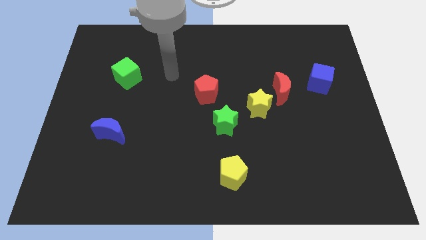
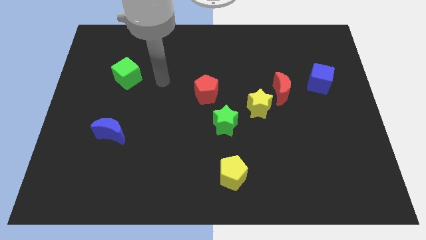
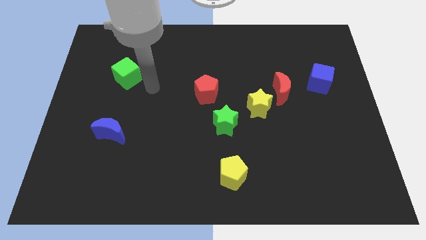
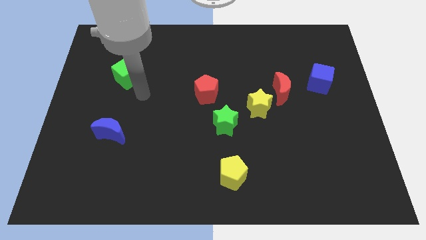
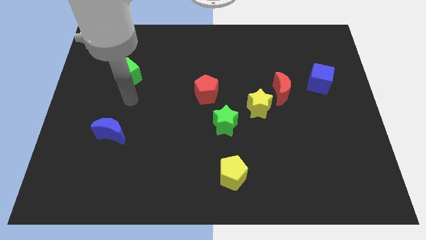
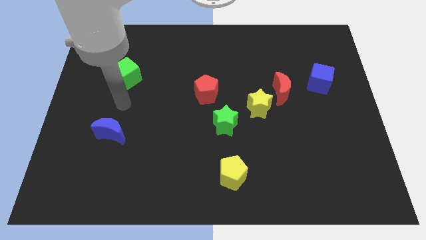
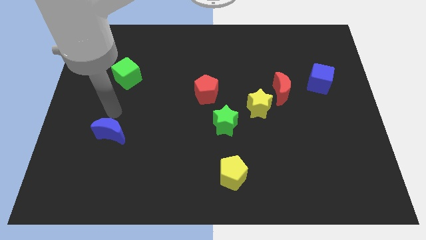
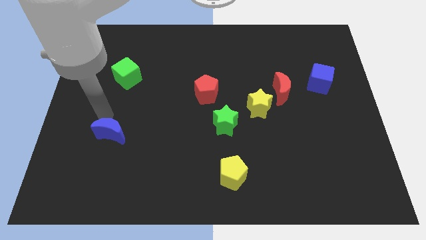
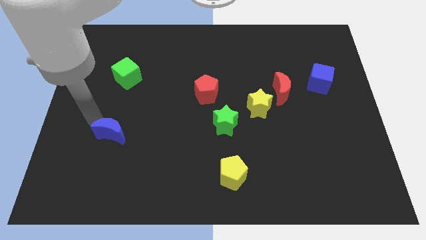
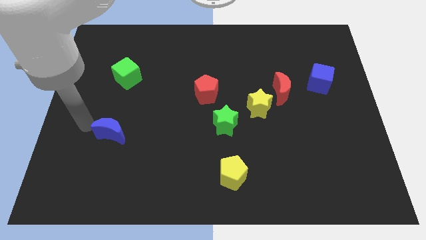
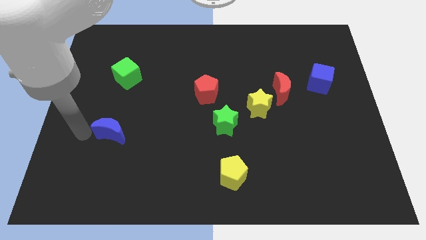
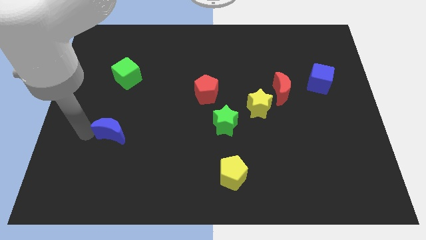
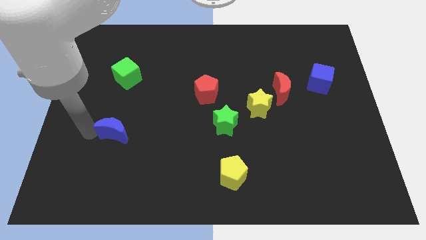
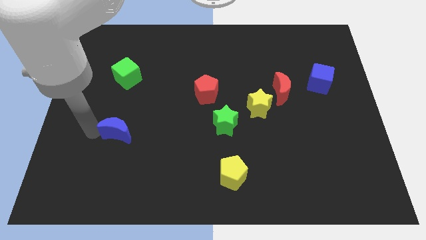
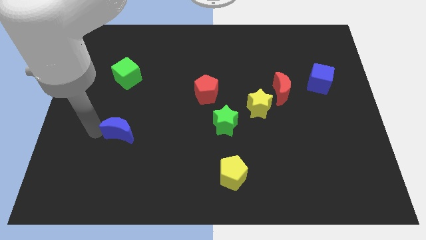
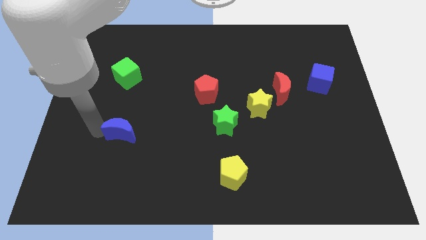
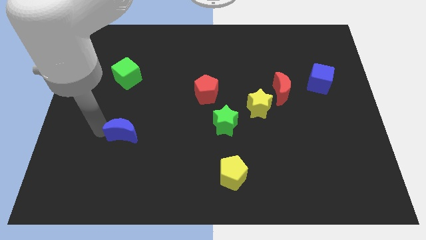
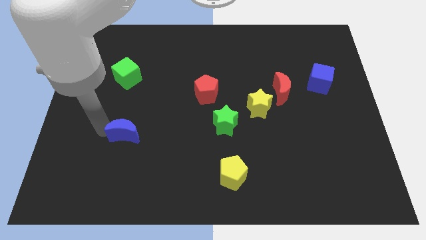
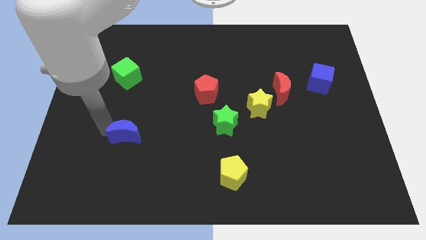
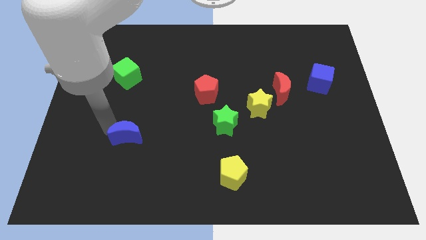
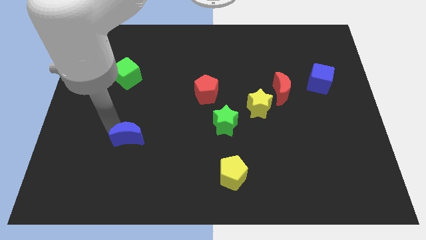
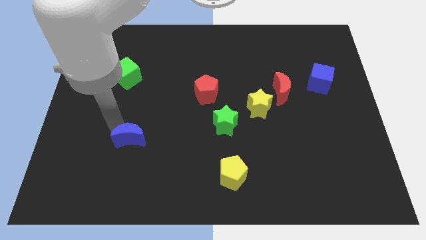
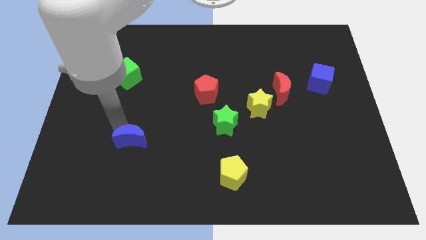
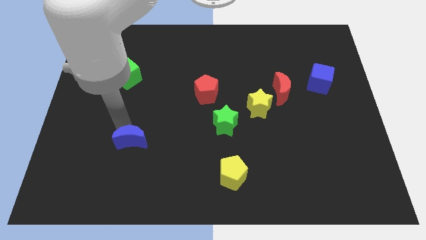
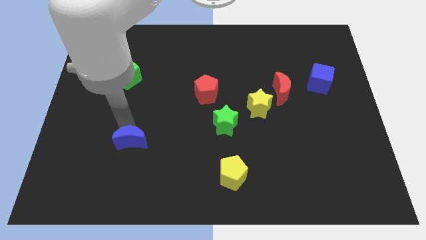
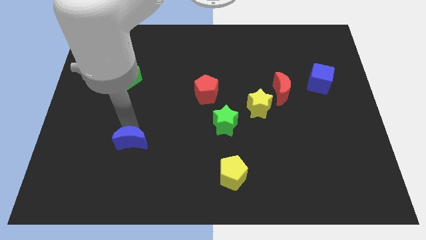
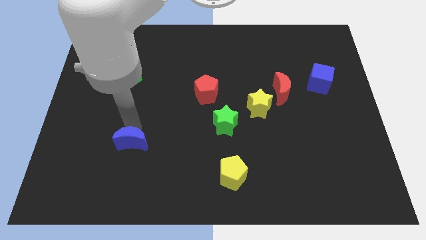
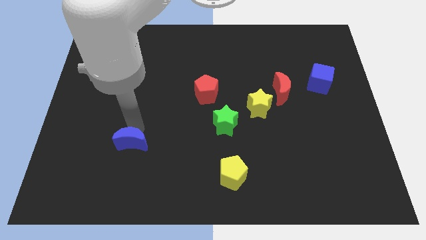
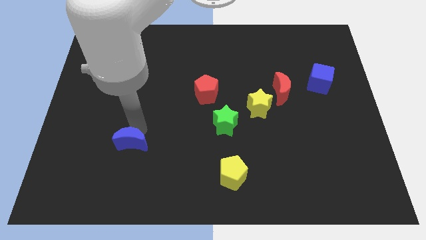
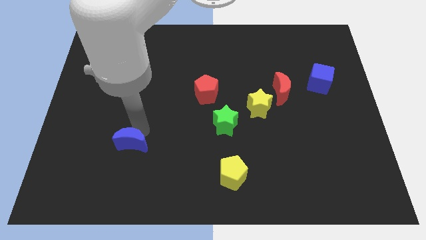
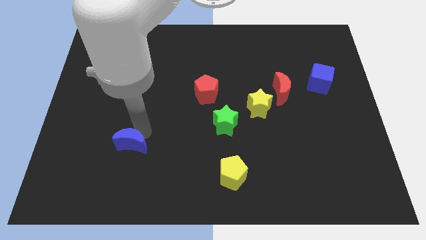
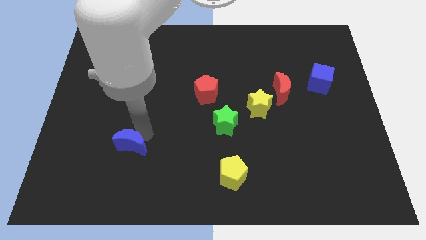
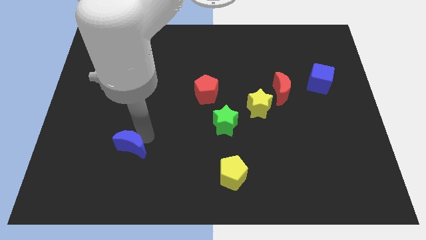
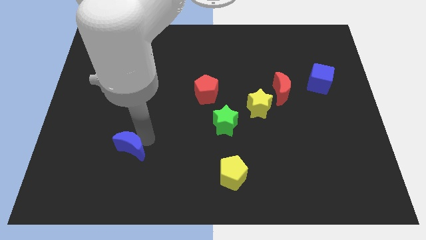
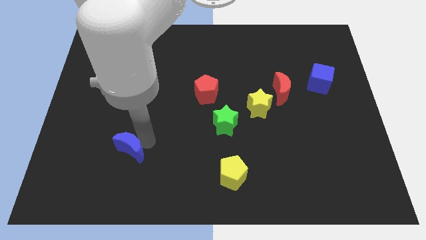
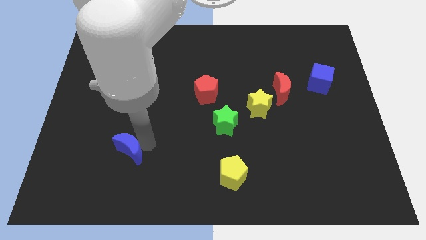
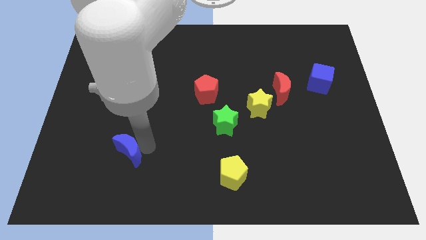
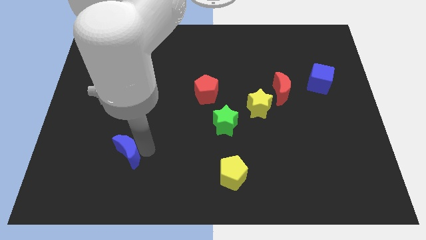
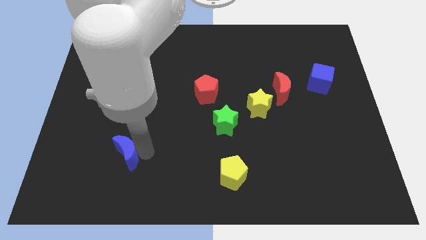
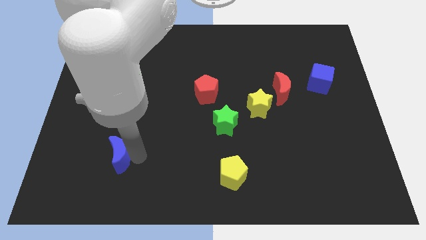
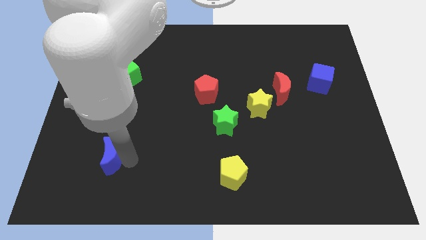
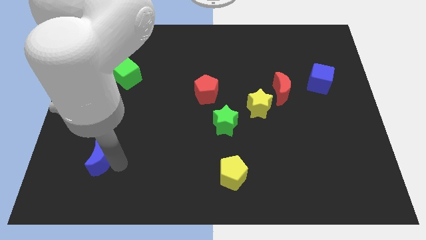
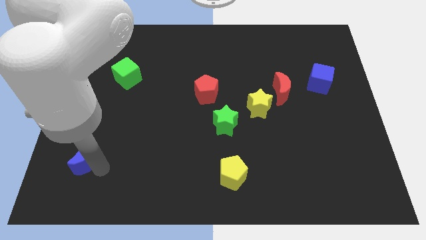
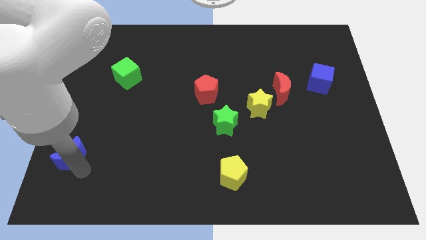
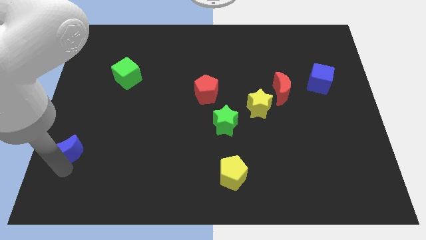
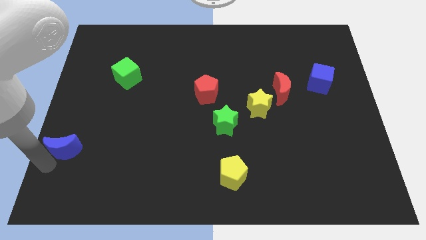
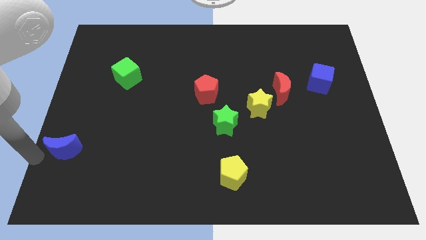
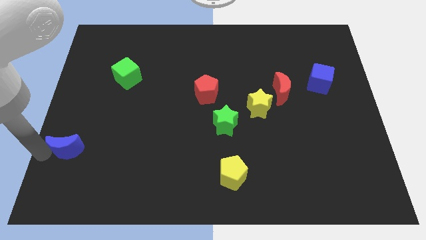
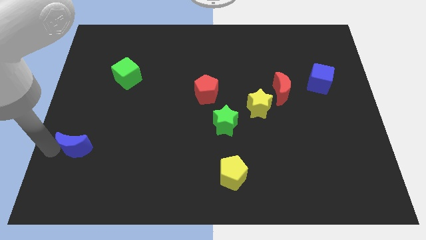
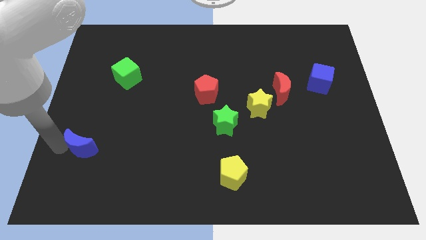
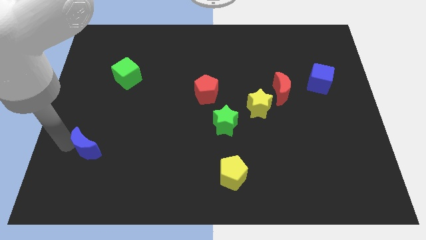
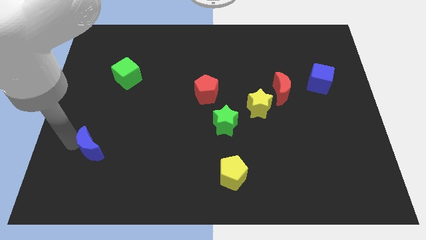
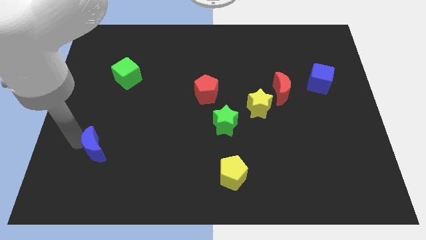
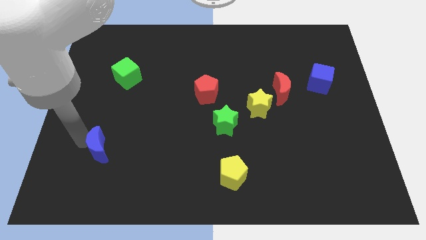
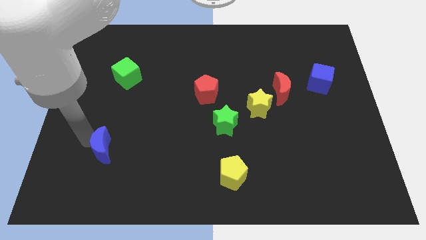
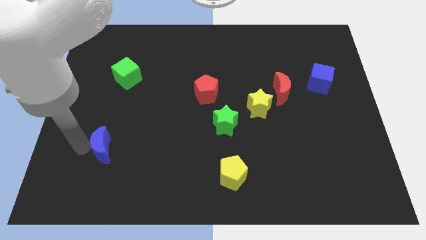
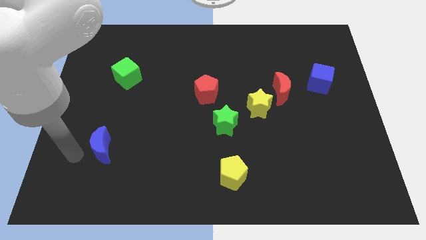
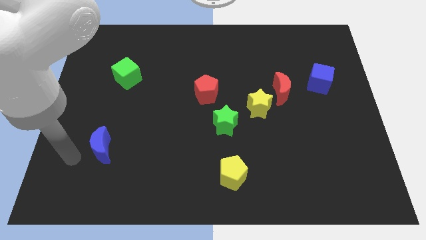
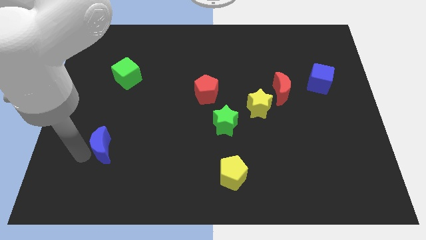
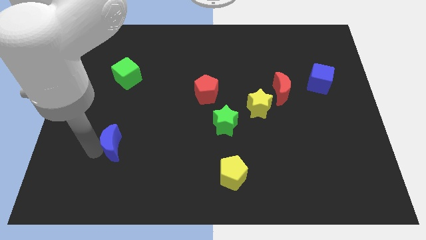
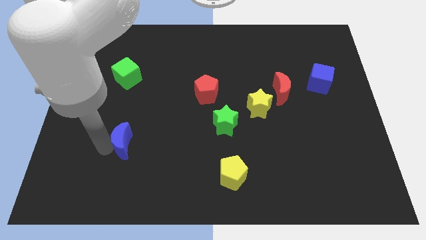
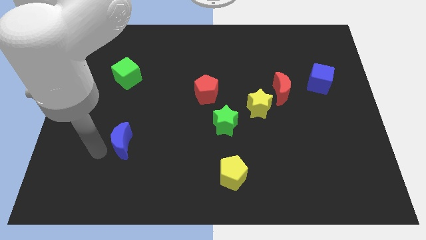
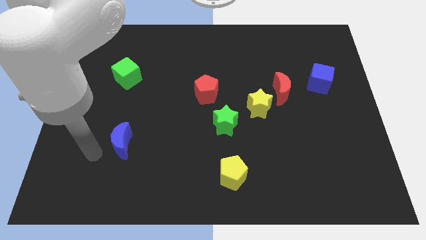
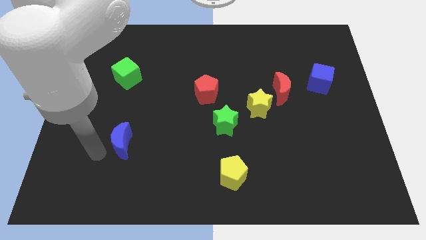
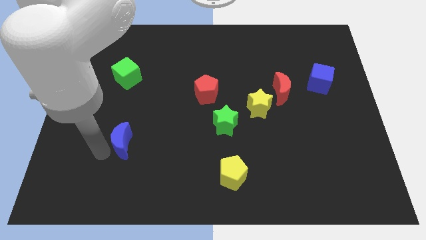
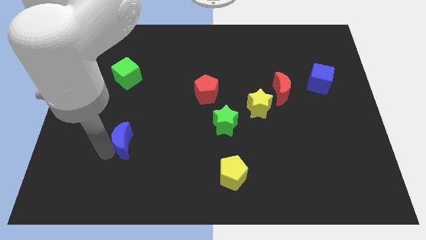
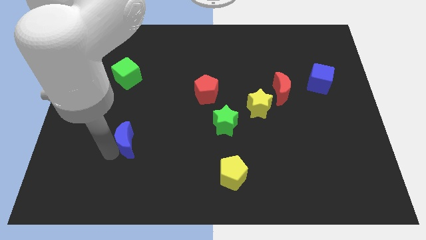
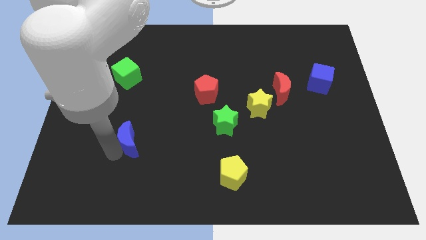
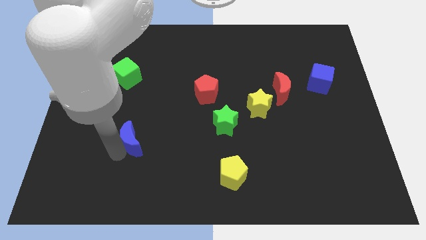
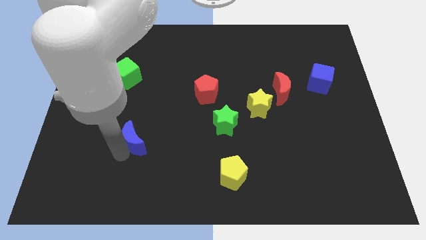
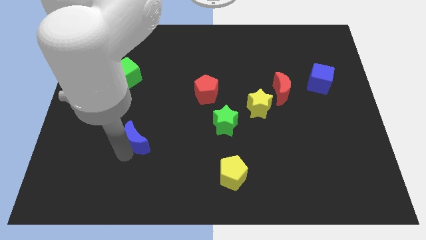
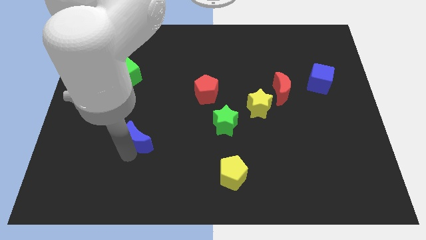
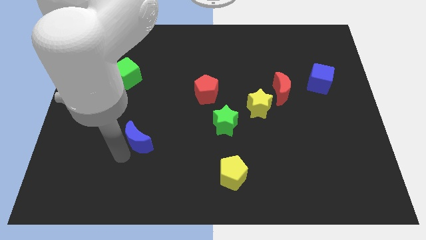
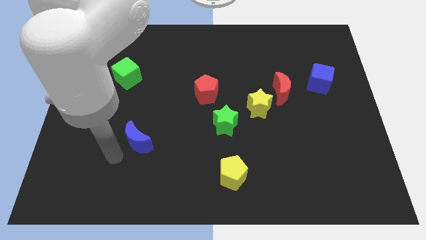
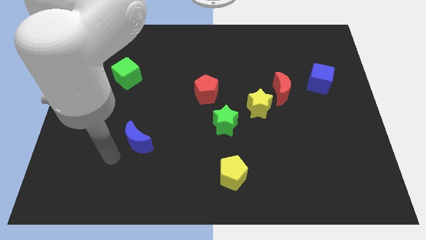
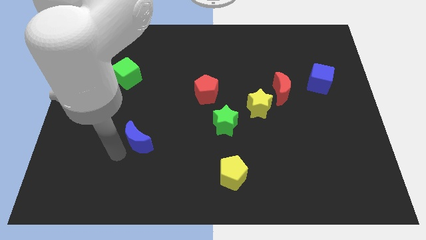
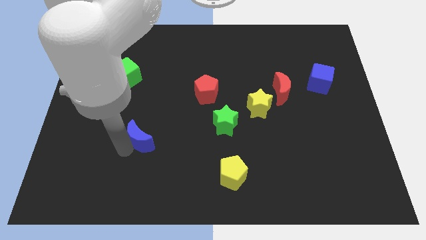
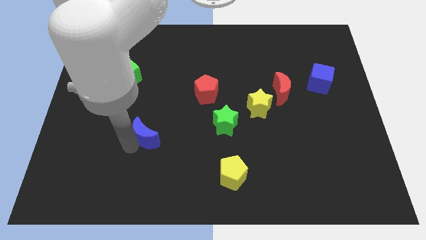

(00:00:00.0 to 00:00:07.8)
move the blue moon right slightly

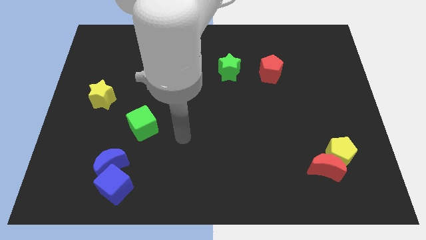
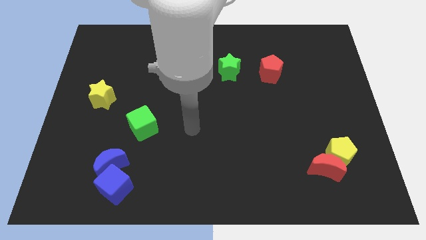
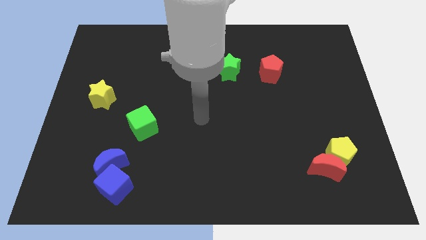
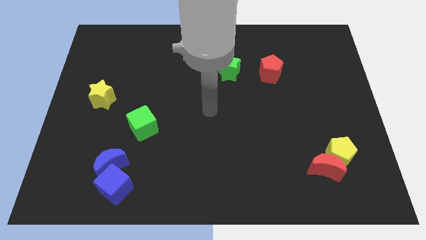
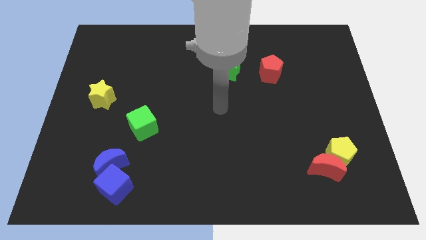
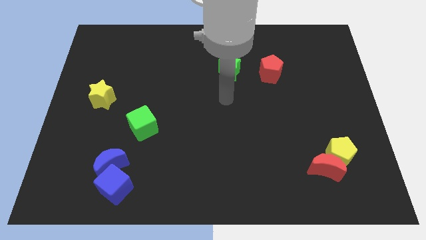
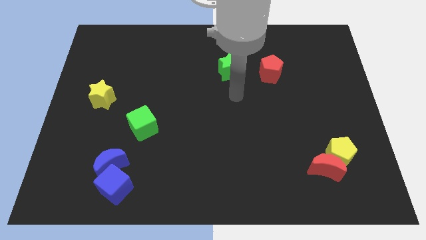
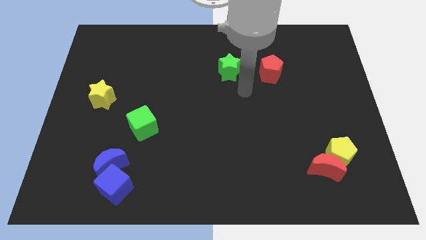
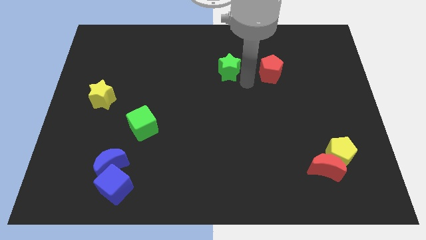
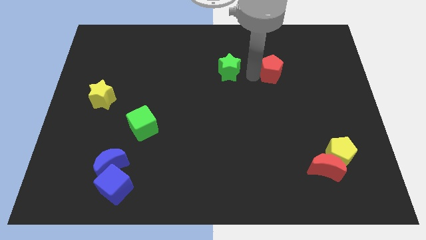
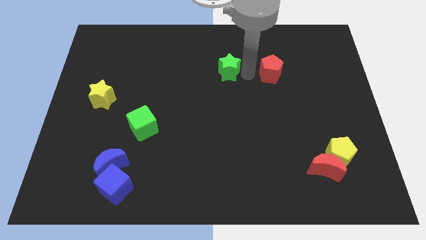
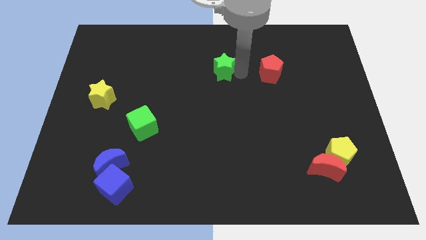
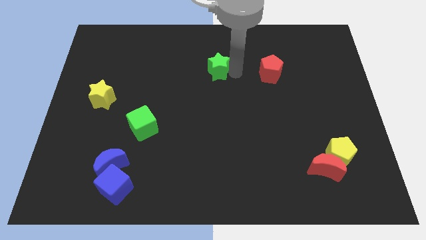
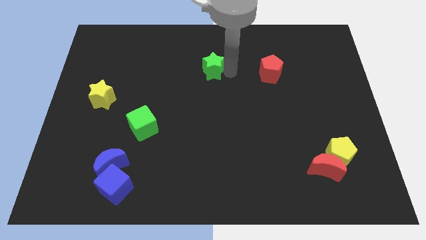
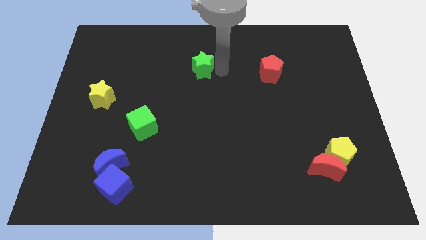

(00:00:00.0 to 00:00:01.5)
push the green star left somewhat
